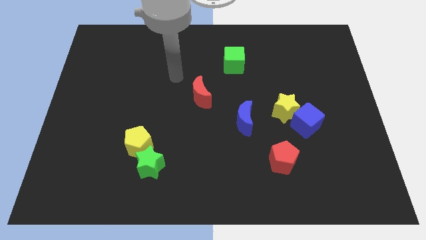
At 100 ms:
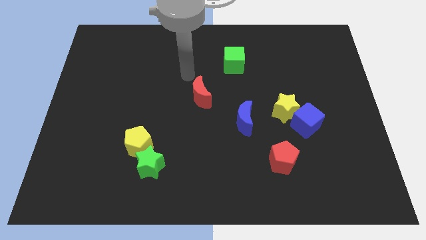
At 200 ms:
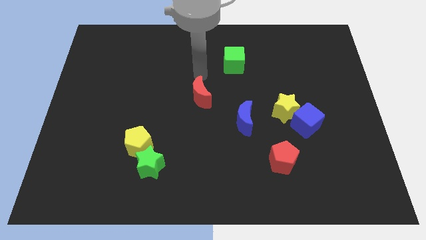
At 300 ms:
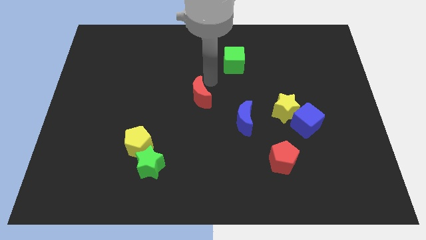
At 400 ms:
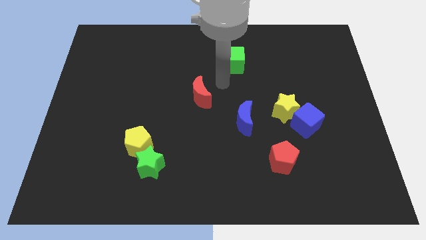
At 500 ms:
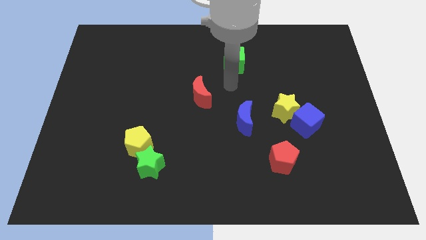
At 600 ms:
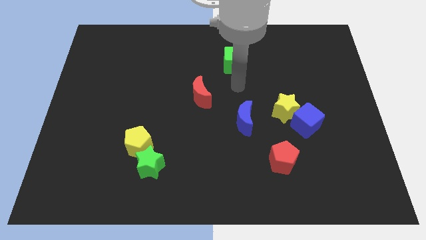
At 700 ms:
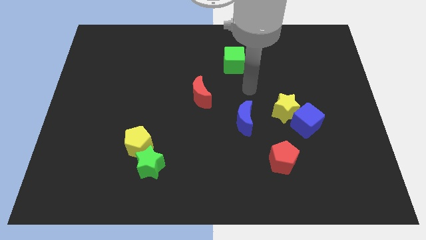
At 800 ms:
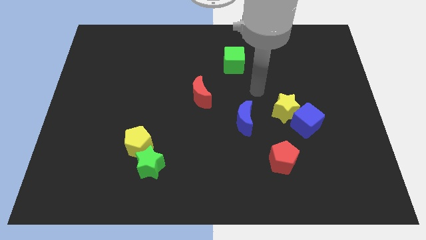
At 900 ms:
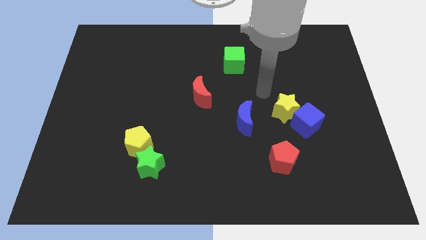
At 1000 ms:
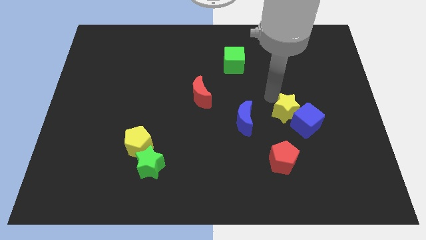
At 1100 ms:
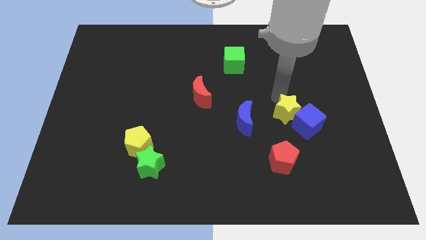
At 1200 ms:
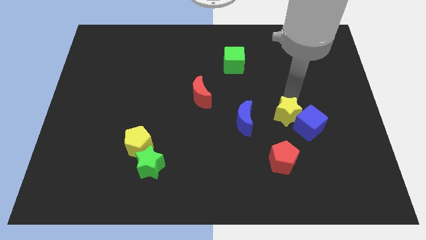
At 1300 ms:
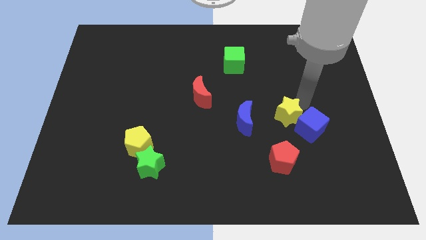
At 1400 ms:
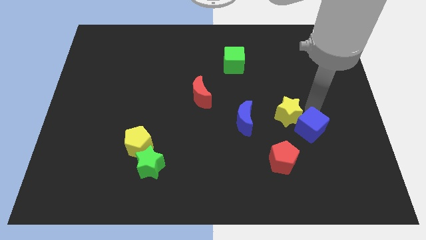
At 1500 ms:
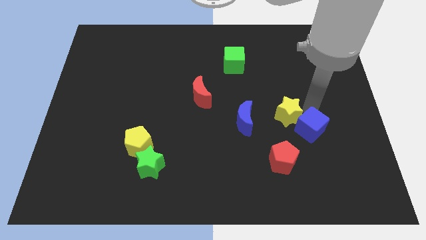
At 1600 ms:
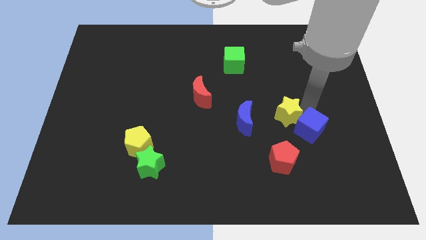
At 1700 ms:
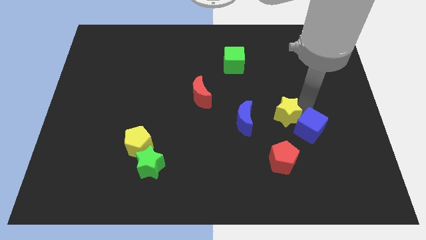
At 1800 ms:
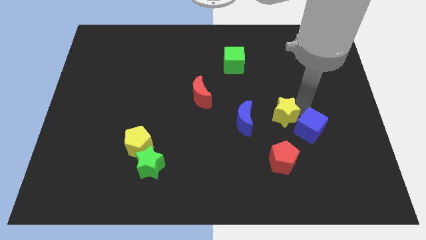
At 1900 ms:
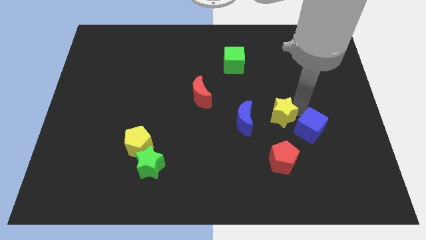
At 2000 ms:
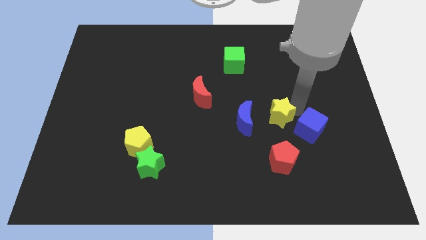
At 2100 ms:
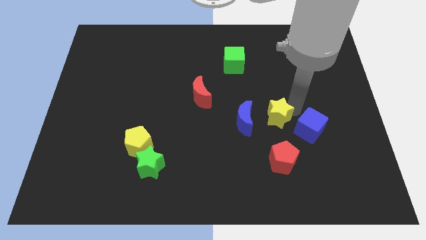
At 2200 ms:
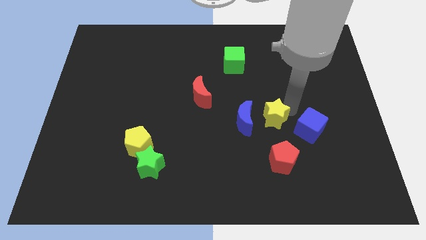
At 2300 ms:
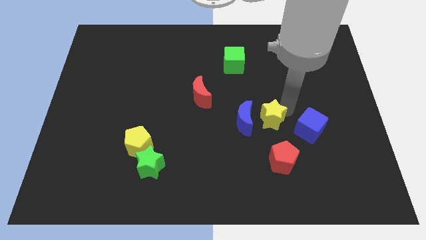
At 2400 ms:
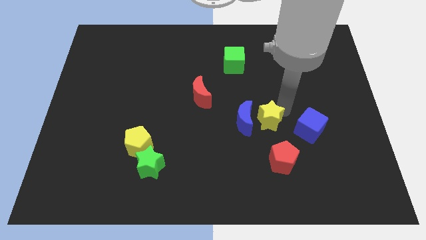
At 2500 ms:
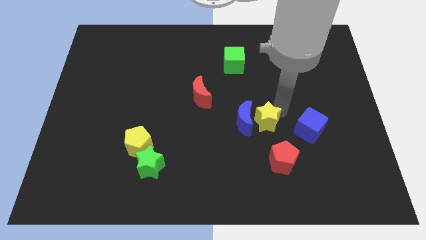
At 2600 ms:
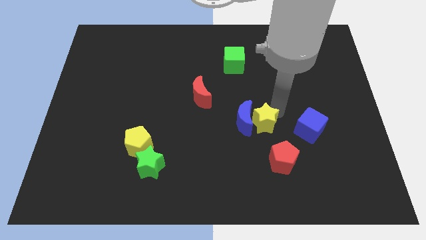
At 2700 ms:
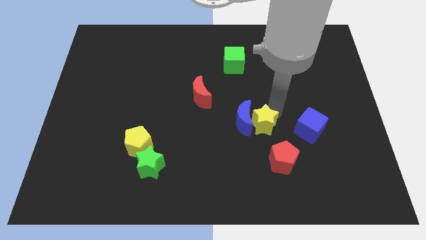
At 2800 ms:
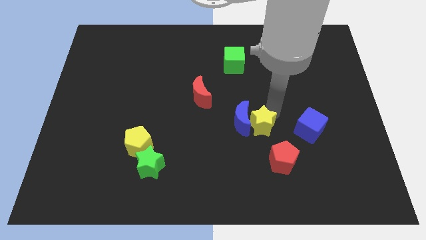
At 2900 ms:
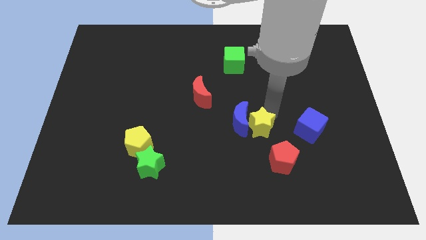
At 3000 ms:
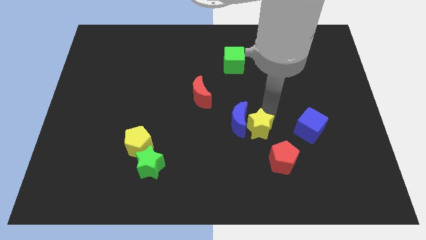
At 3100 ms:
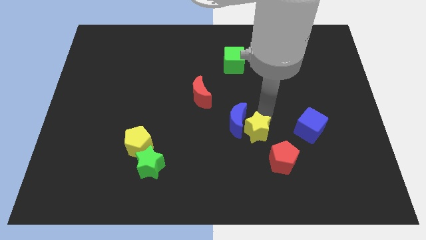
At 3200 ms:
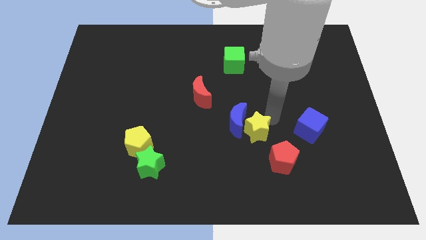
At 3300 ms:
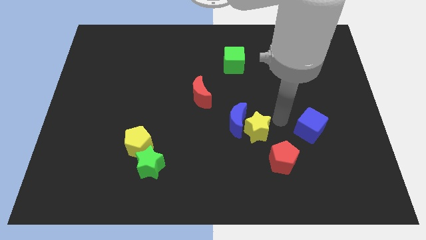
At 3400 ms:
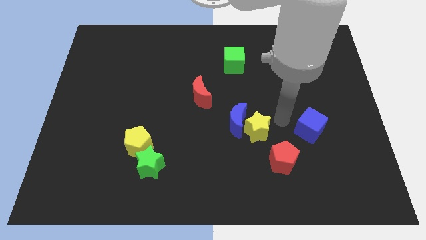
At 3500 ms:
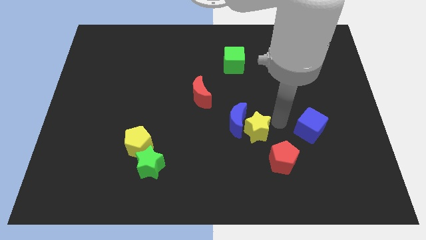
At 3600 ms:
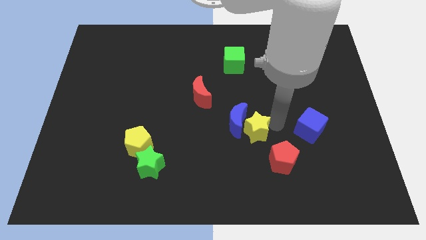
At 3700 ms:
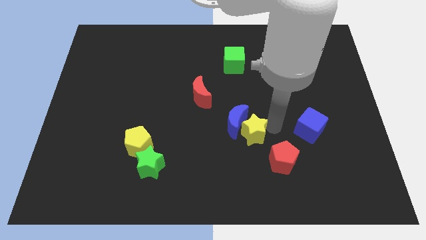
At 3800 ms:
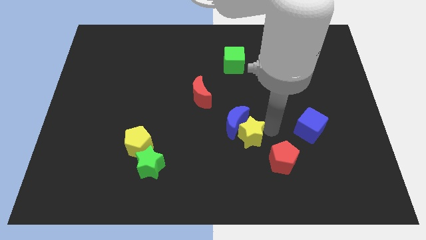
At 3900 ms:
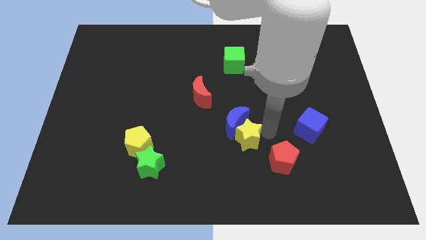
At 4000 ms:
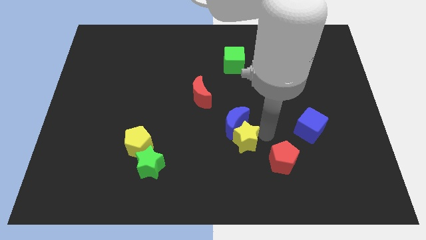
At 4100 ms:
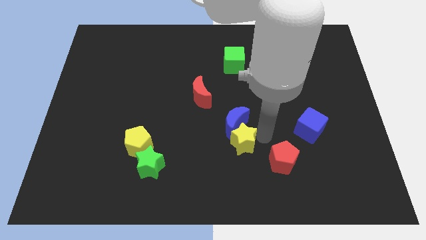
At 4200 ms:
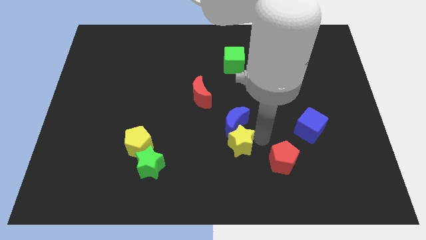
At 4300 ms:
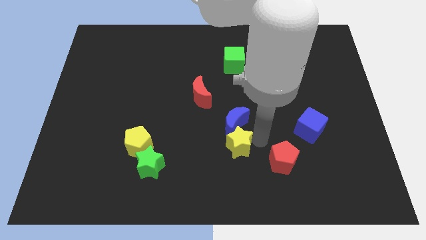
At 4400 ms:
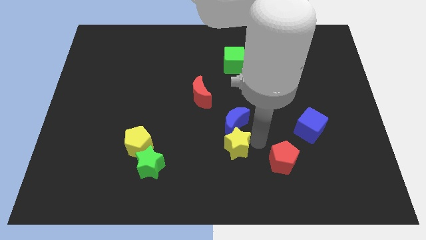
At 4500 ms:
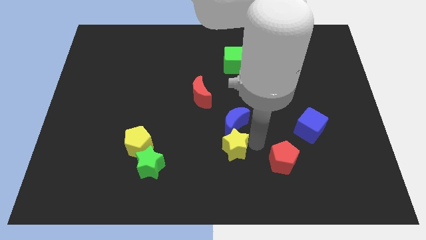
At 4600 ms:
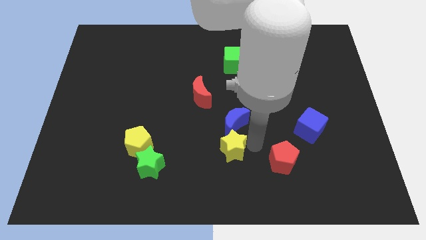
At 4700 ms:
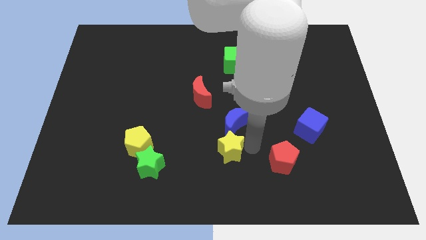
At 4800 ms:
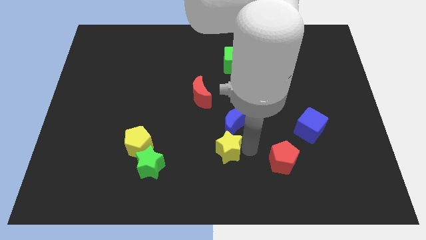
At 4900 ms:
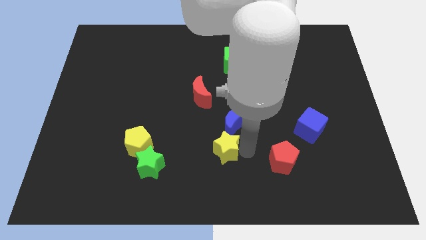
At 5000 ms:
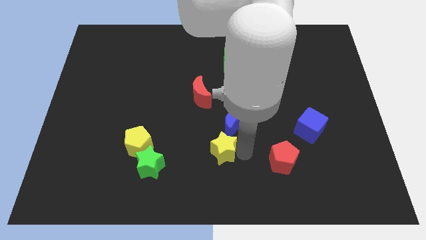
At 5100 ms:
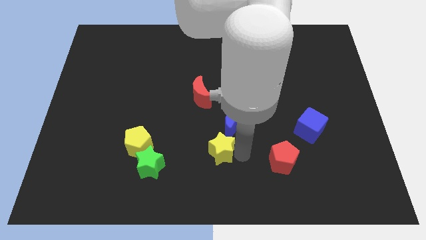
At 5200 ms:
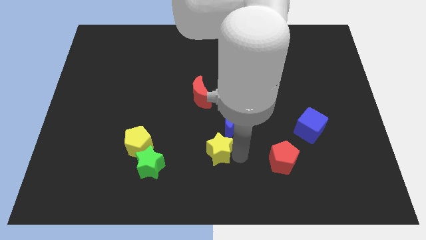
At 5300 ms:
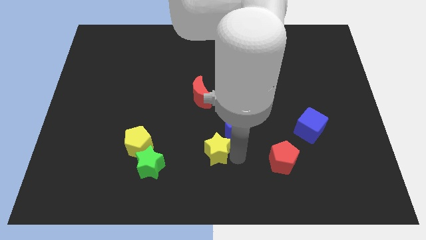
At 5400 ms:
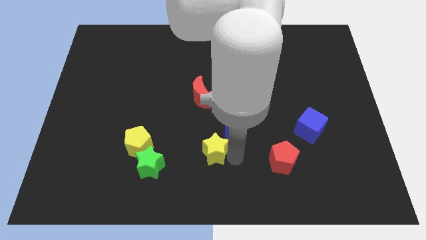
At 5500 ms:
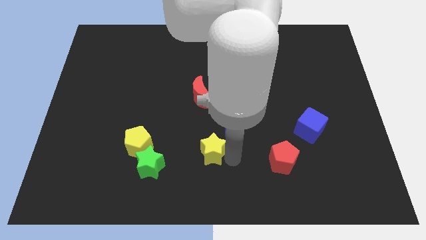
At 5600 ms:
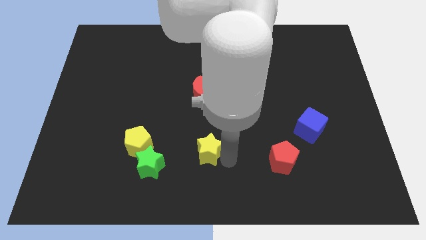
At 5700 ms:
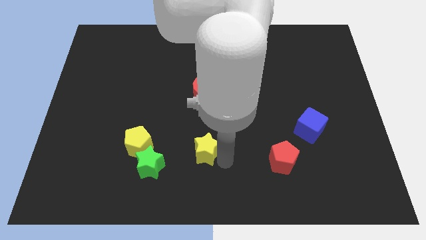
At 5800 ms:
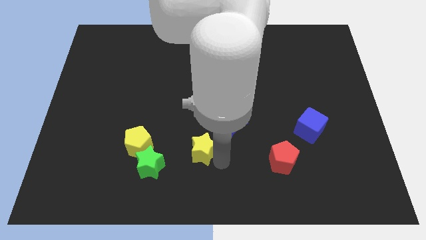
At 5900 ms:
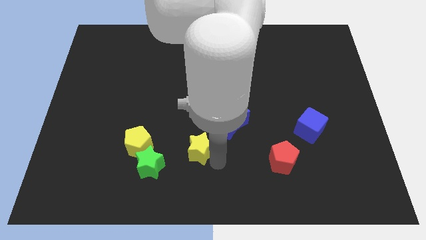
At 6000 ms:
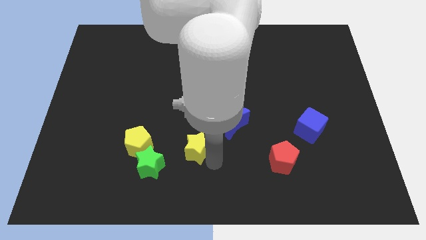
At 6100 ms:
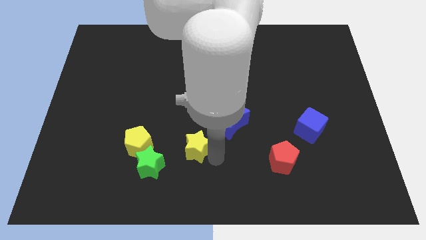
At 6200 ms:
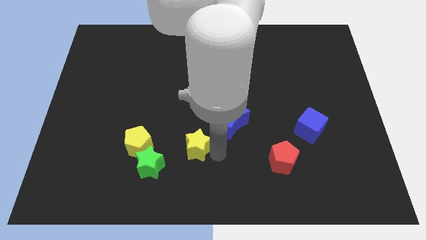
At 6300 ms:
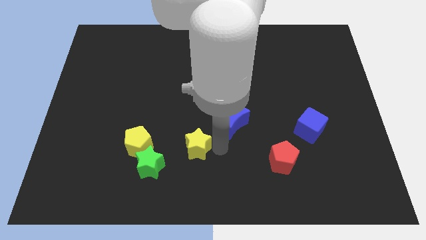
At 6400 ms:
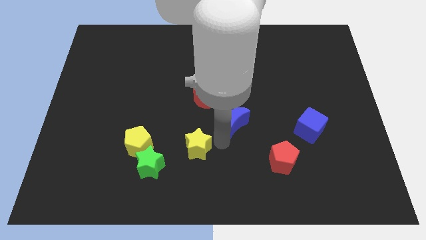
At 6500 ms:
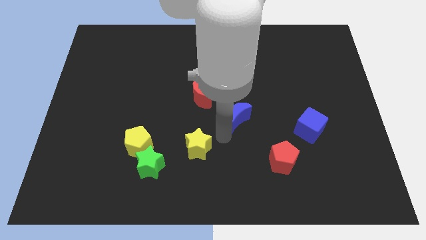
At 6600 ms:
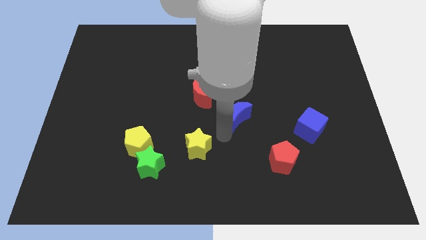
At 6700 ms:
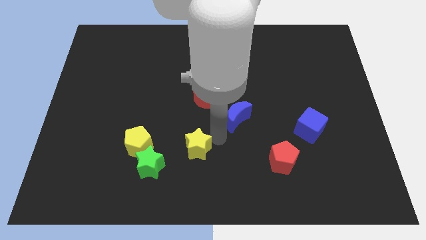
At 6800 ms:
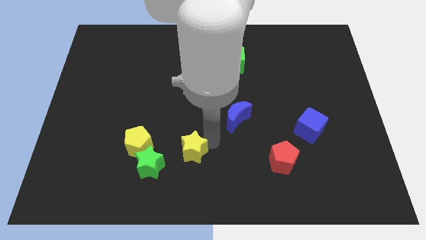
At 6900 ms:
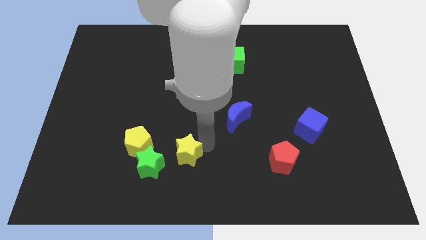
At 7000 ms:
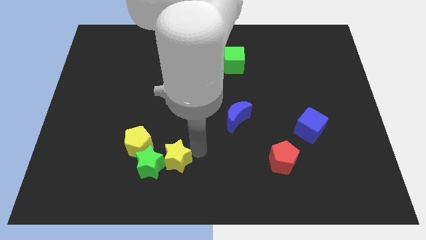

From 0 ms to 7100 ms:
push the yellow star towards the green star
